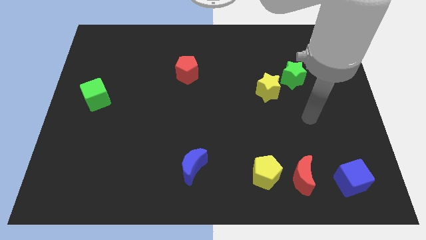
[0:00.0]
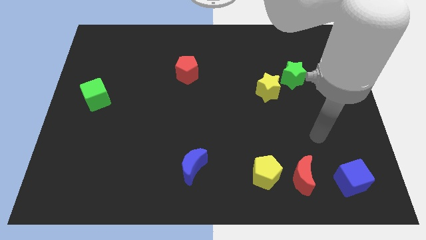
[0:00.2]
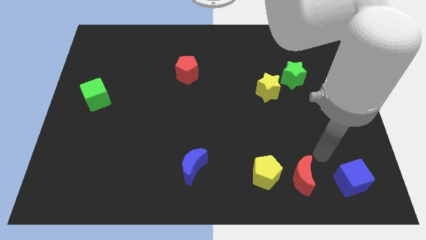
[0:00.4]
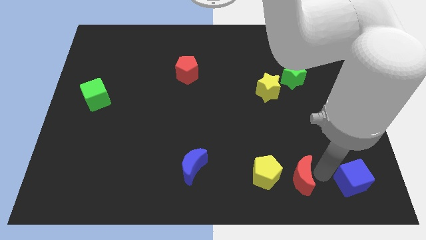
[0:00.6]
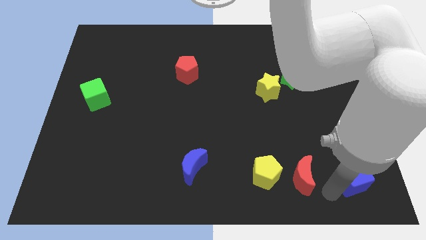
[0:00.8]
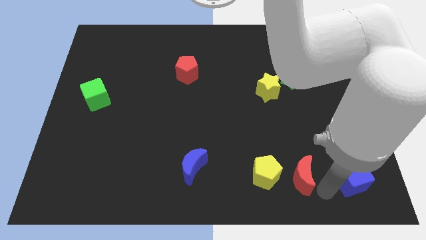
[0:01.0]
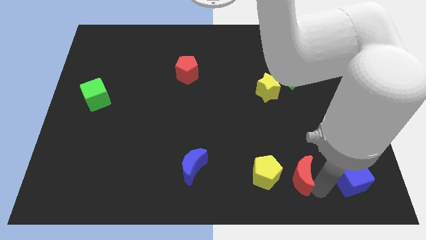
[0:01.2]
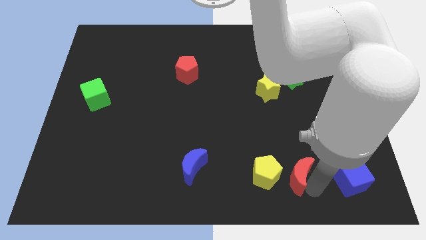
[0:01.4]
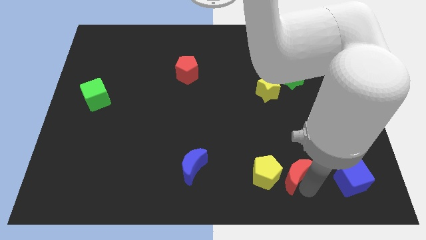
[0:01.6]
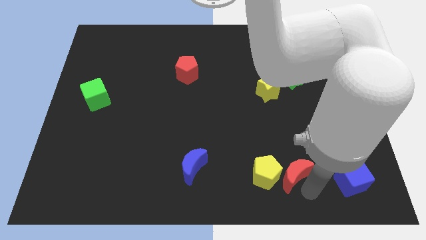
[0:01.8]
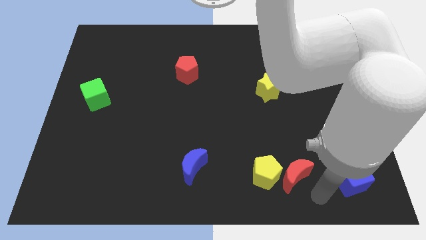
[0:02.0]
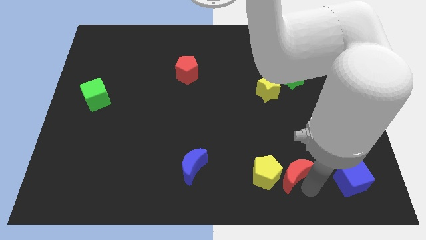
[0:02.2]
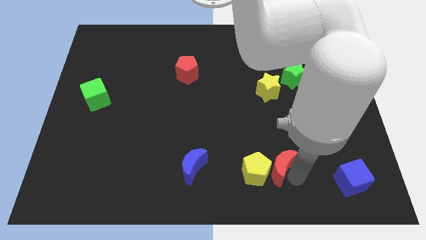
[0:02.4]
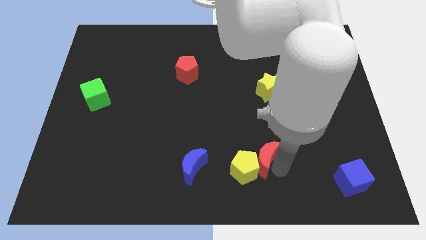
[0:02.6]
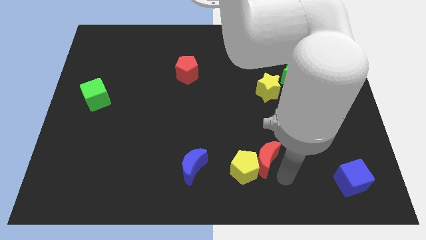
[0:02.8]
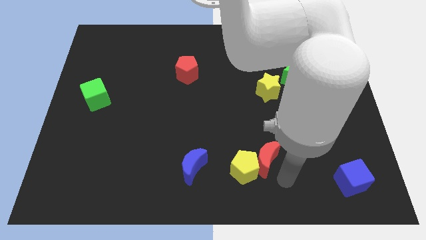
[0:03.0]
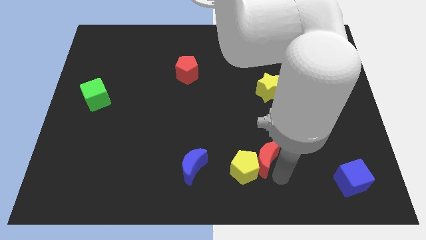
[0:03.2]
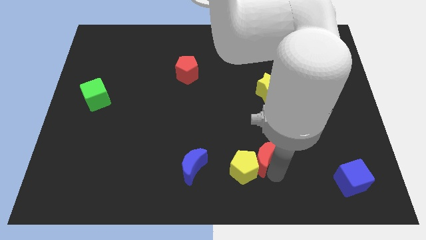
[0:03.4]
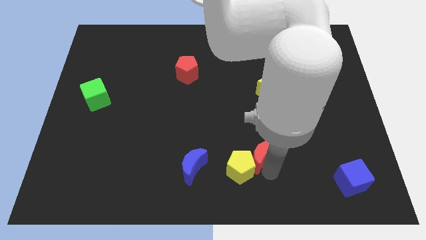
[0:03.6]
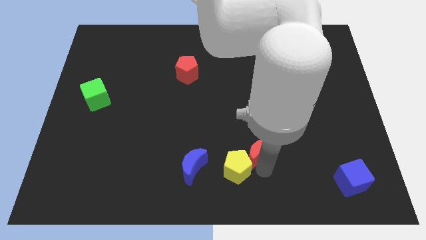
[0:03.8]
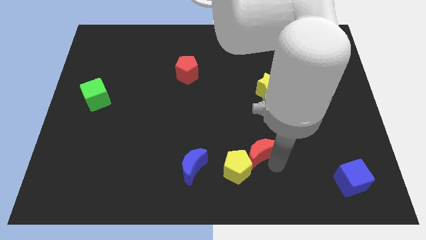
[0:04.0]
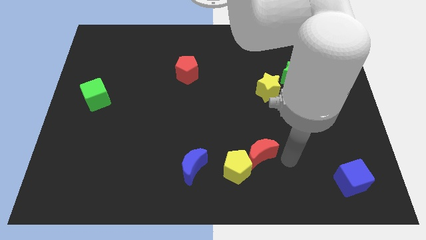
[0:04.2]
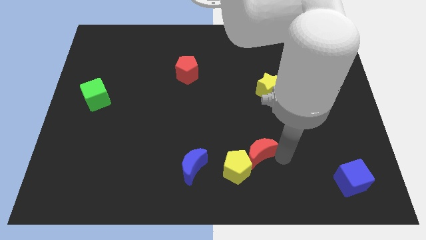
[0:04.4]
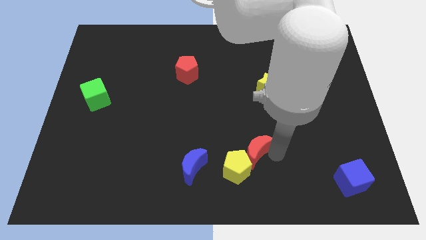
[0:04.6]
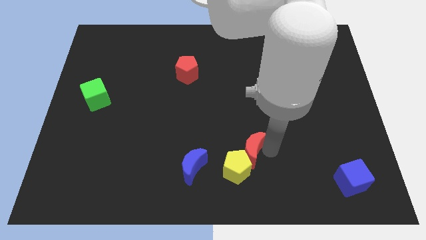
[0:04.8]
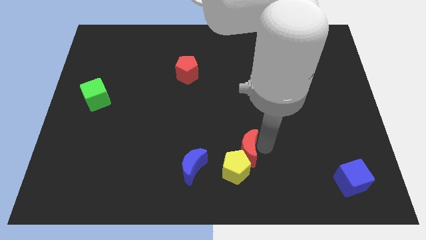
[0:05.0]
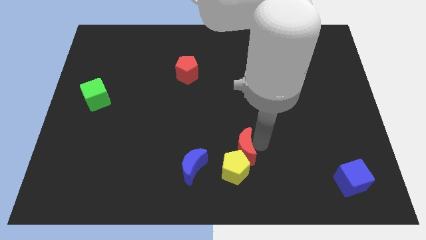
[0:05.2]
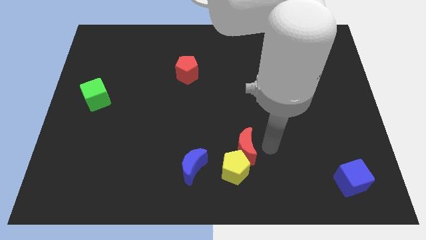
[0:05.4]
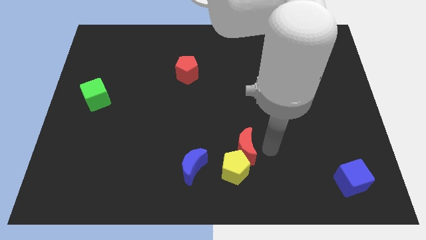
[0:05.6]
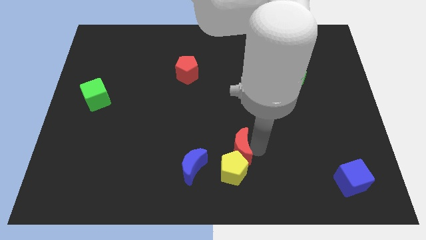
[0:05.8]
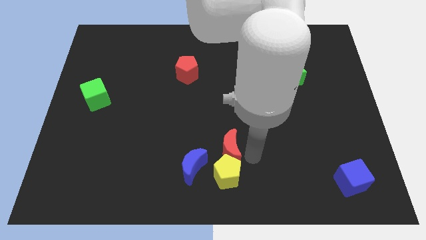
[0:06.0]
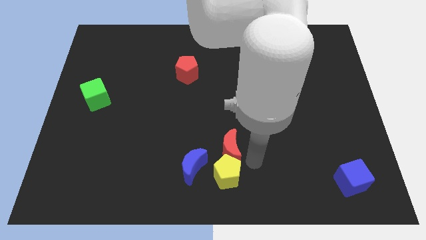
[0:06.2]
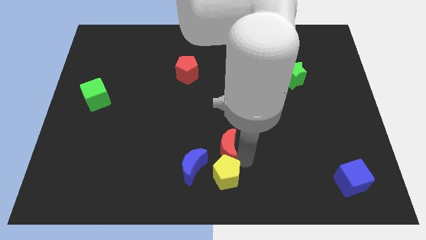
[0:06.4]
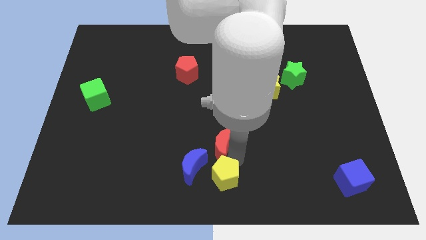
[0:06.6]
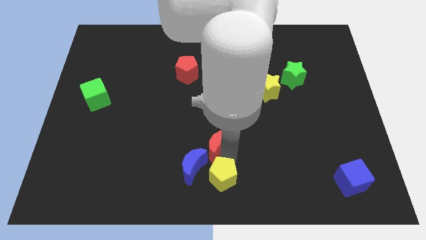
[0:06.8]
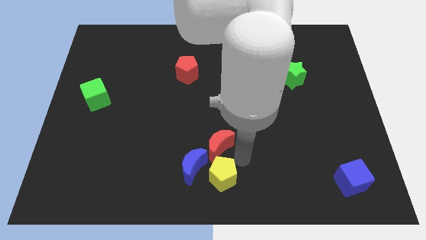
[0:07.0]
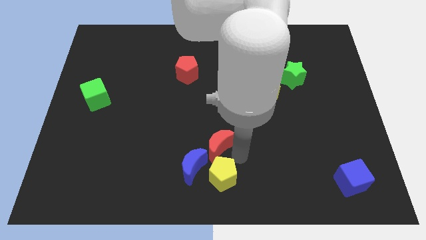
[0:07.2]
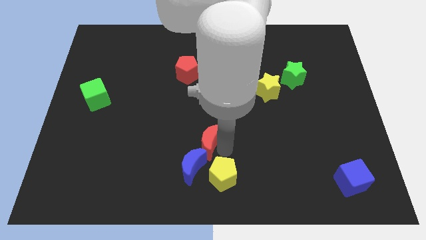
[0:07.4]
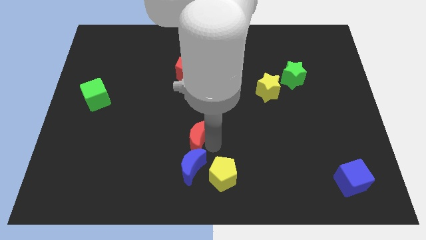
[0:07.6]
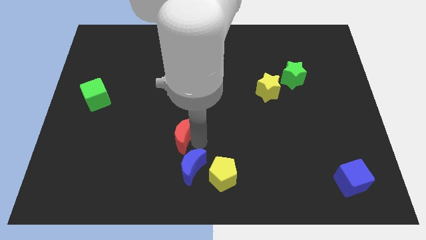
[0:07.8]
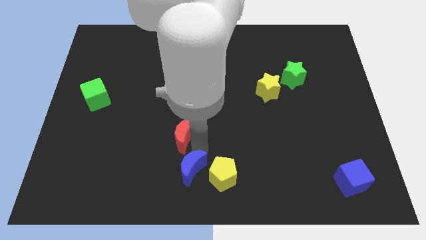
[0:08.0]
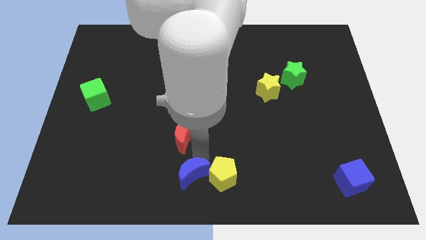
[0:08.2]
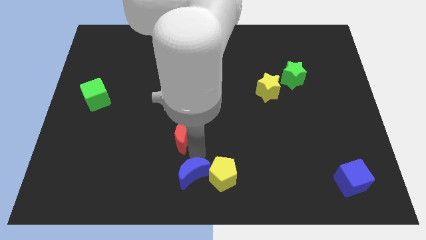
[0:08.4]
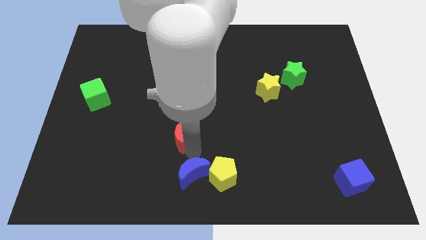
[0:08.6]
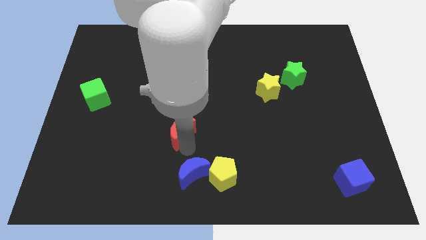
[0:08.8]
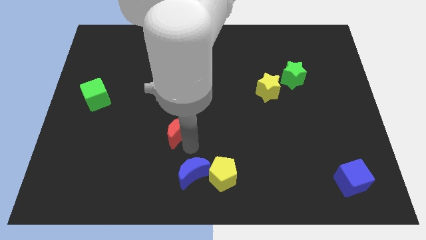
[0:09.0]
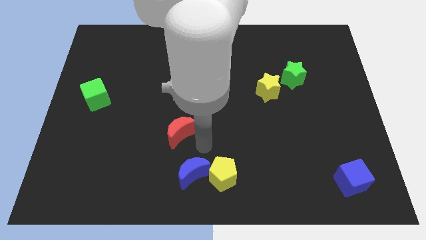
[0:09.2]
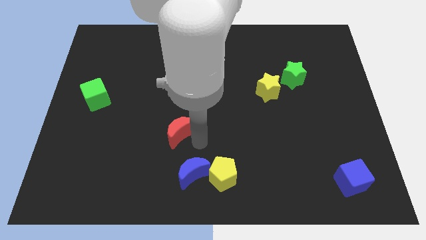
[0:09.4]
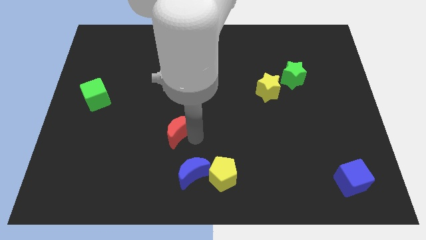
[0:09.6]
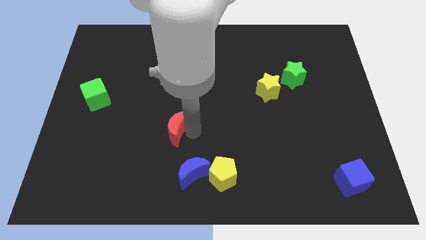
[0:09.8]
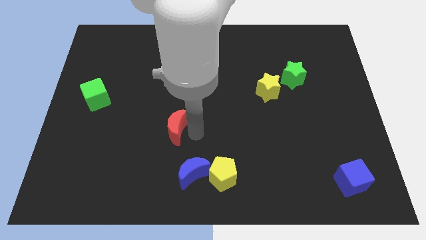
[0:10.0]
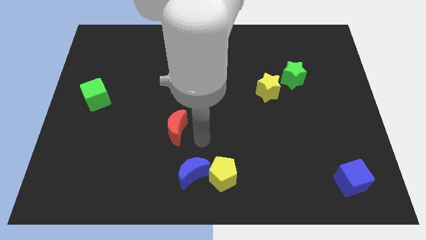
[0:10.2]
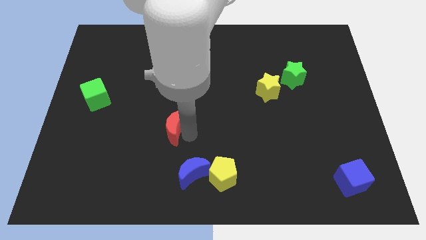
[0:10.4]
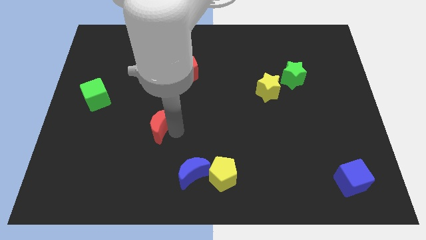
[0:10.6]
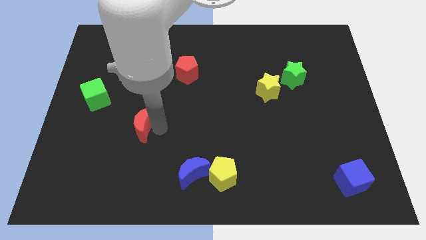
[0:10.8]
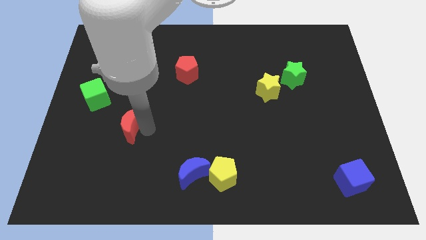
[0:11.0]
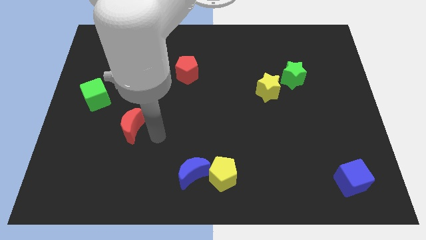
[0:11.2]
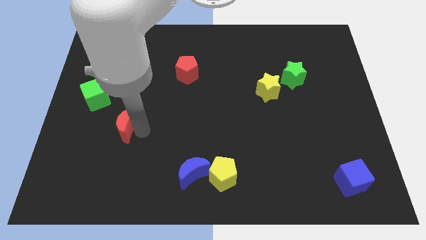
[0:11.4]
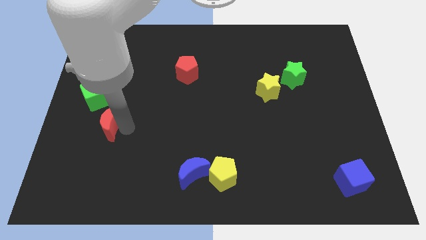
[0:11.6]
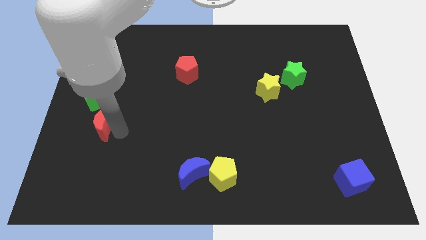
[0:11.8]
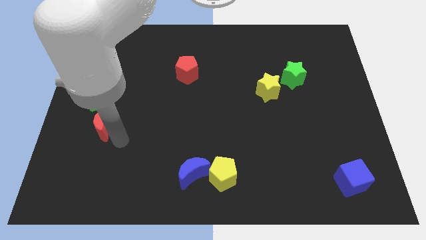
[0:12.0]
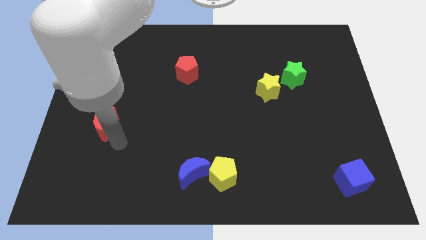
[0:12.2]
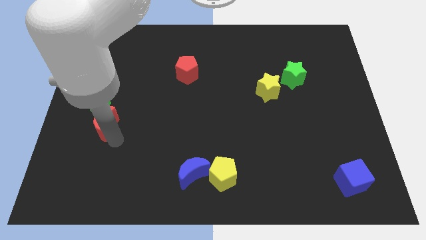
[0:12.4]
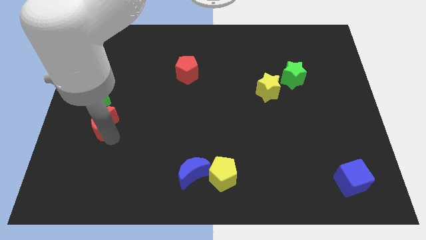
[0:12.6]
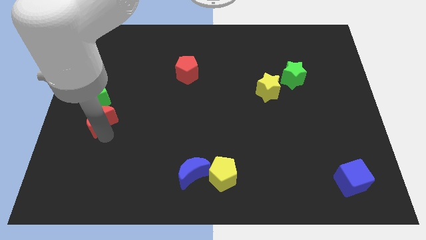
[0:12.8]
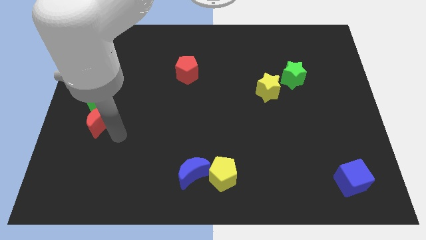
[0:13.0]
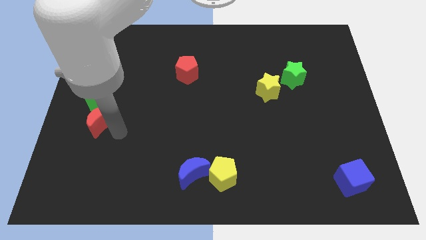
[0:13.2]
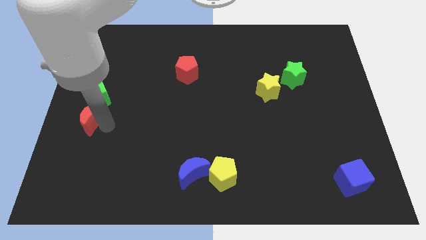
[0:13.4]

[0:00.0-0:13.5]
slide the red moon to the left side of the board
